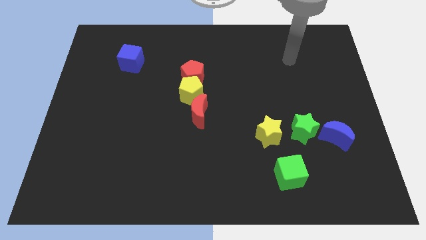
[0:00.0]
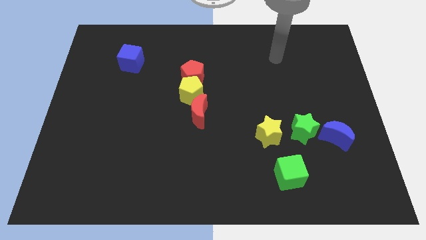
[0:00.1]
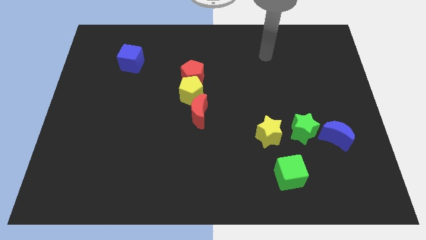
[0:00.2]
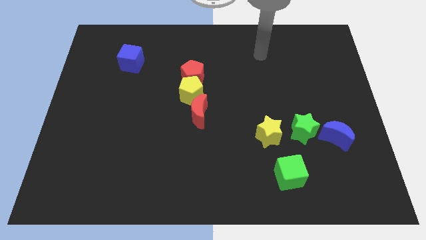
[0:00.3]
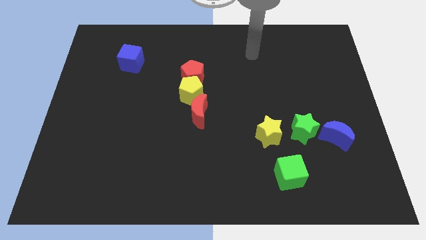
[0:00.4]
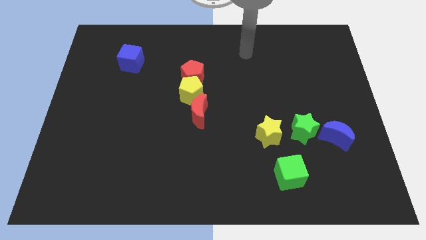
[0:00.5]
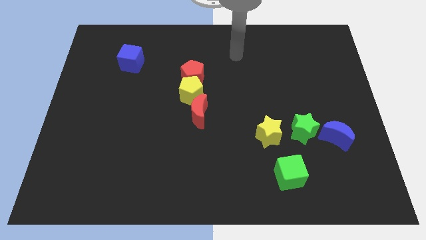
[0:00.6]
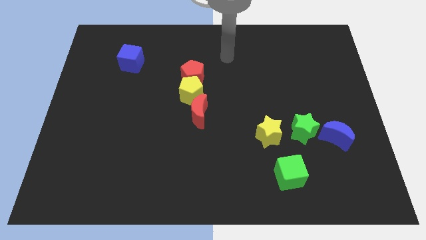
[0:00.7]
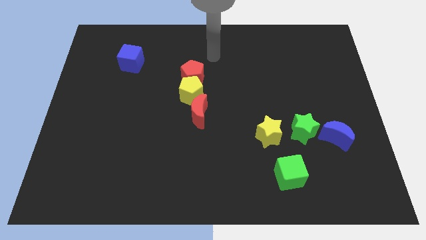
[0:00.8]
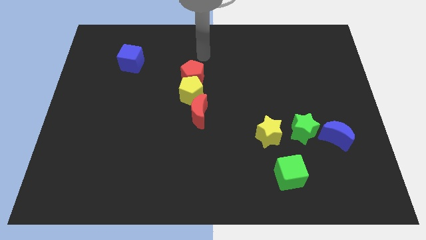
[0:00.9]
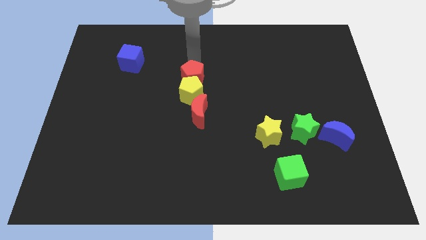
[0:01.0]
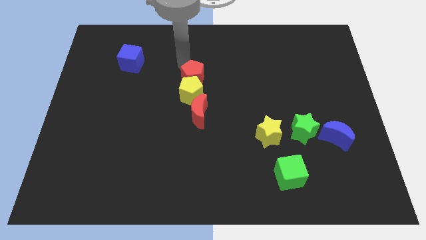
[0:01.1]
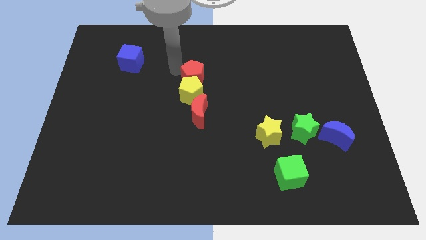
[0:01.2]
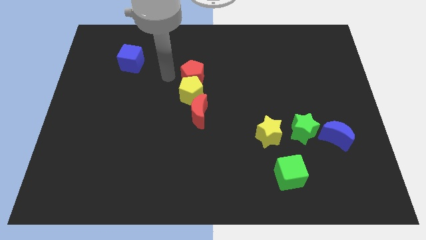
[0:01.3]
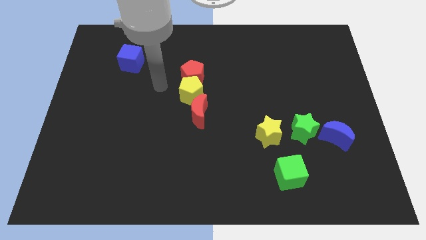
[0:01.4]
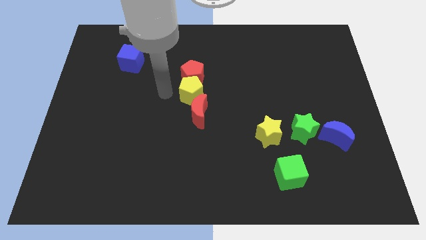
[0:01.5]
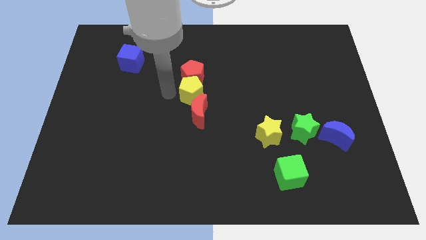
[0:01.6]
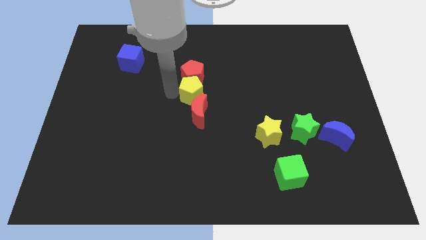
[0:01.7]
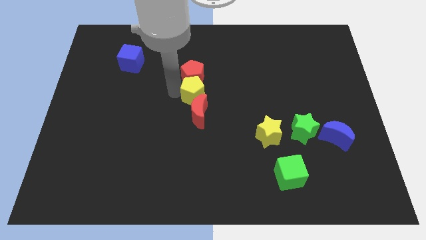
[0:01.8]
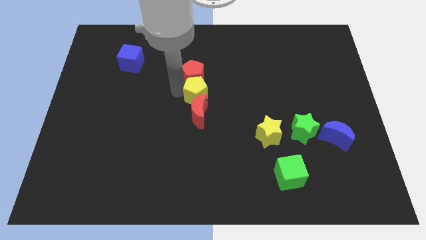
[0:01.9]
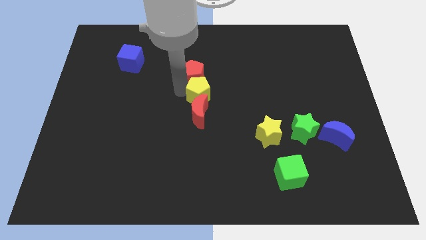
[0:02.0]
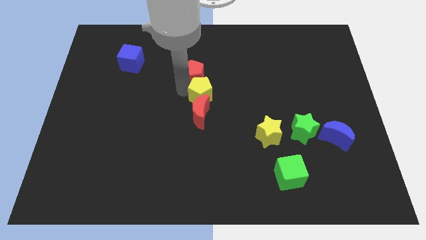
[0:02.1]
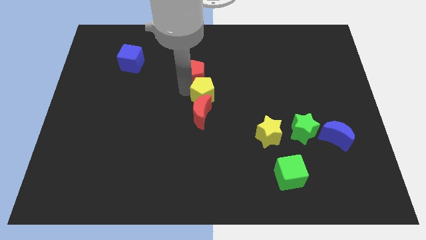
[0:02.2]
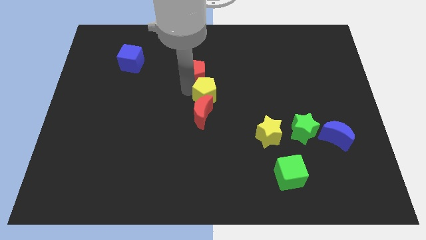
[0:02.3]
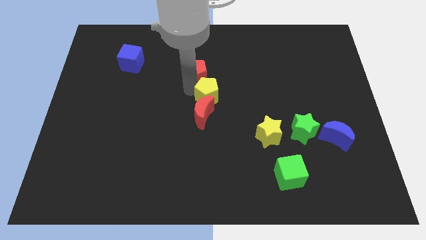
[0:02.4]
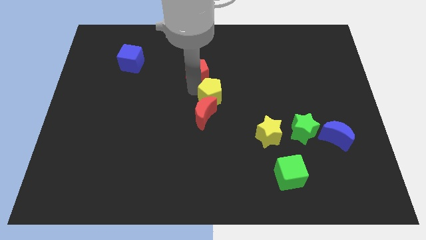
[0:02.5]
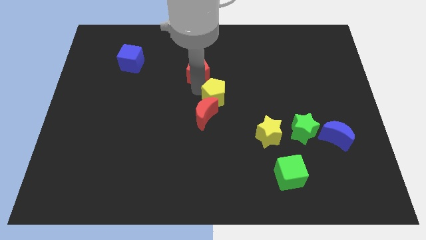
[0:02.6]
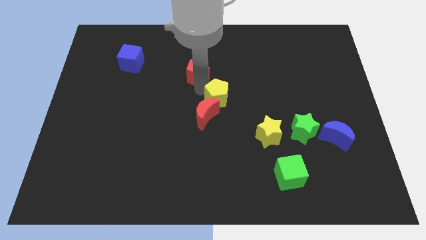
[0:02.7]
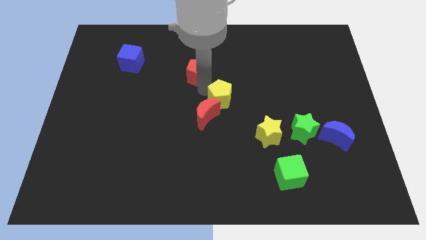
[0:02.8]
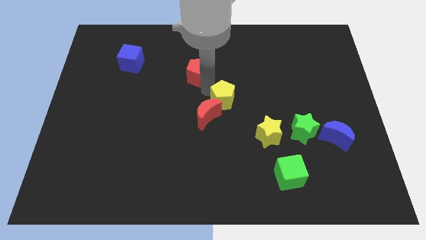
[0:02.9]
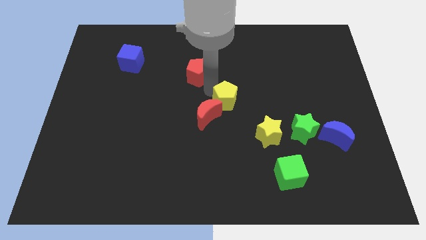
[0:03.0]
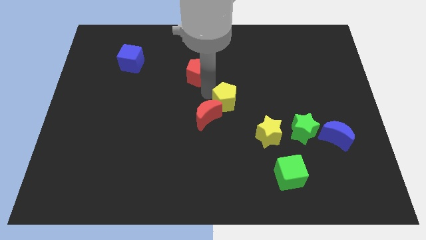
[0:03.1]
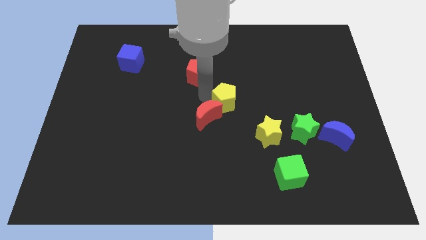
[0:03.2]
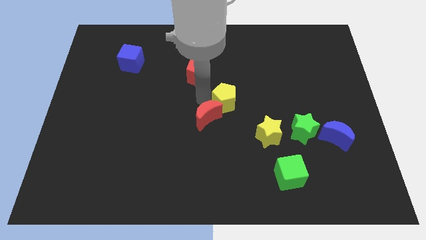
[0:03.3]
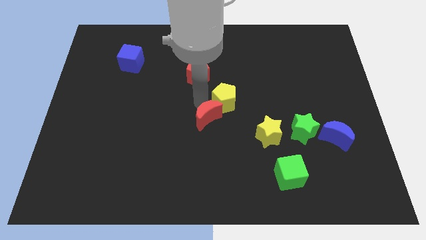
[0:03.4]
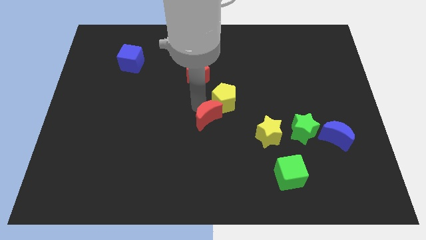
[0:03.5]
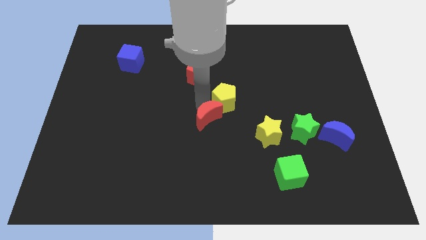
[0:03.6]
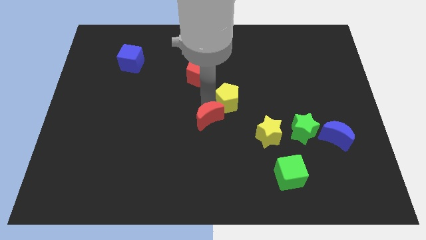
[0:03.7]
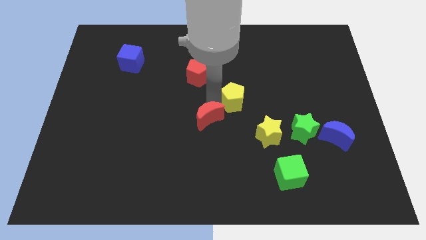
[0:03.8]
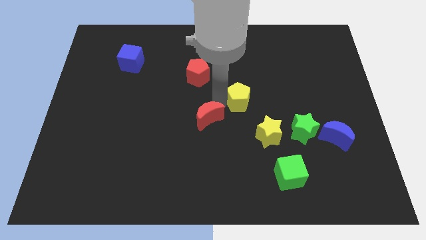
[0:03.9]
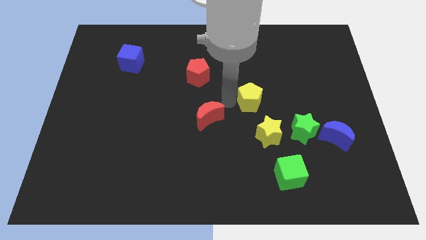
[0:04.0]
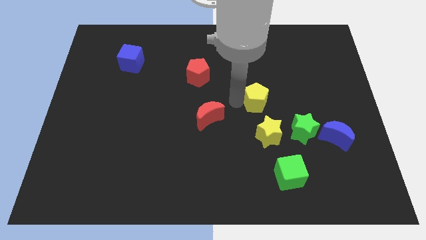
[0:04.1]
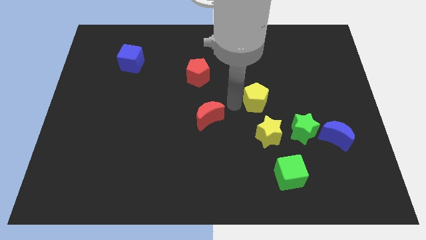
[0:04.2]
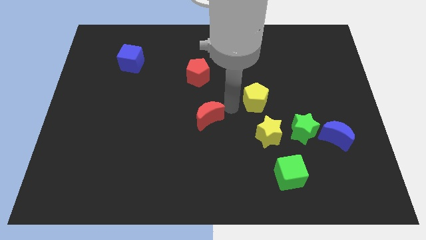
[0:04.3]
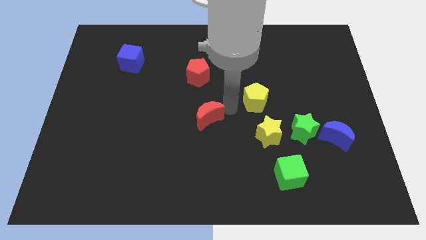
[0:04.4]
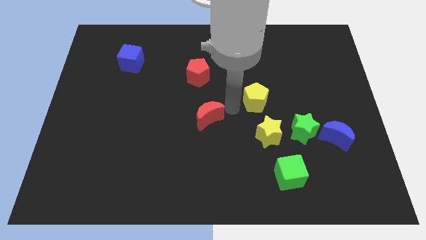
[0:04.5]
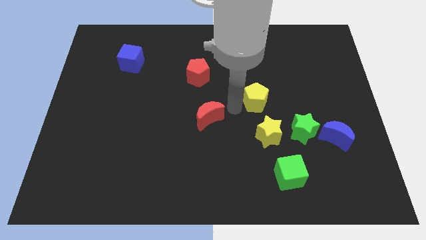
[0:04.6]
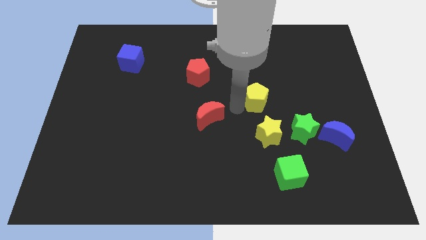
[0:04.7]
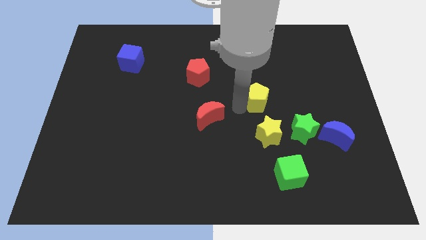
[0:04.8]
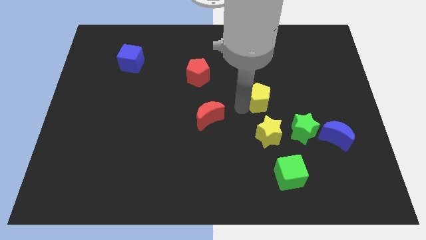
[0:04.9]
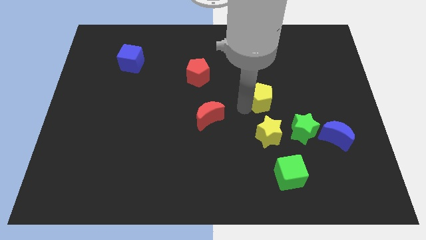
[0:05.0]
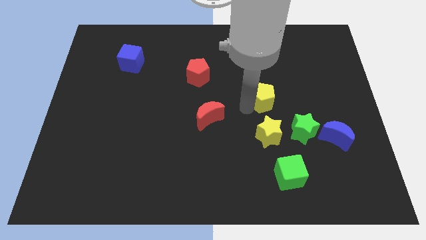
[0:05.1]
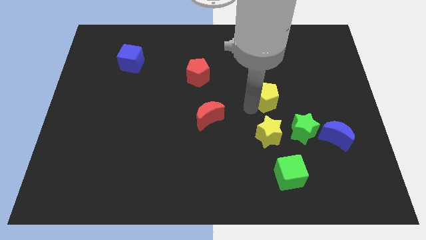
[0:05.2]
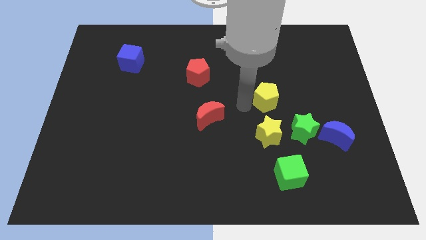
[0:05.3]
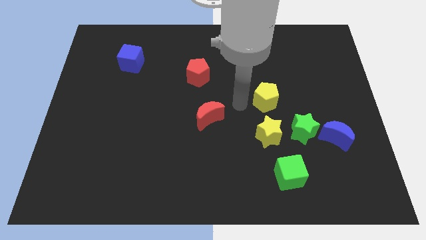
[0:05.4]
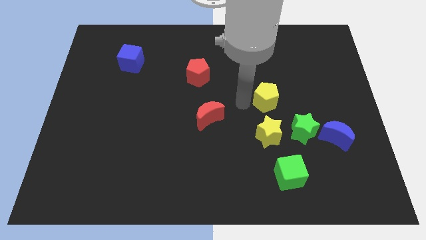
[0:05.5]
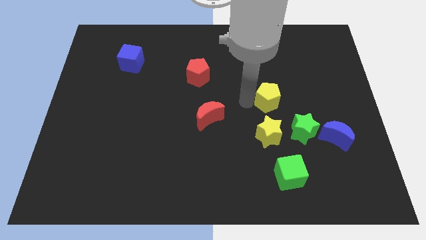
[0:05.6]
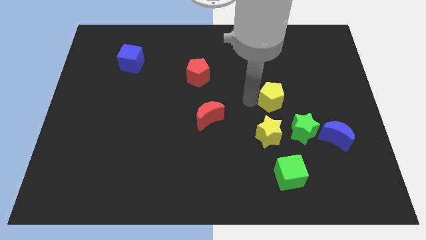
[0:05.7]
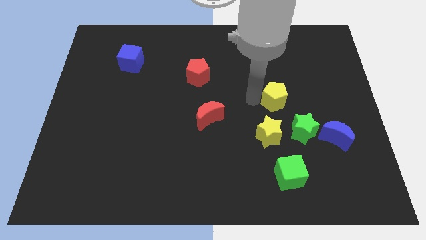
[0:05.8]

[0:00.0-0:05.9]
slide the yellow pentagon right

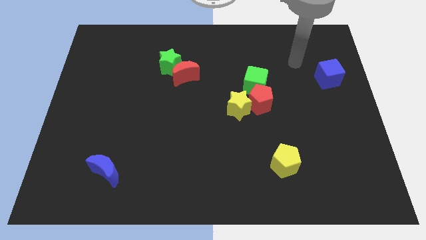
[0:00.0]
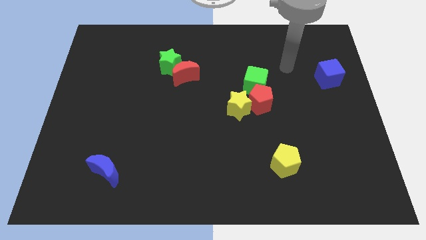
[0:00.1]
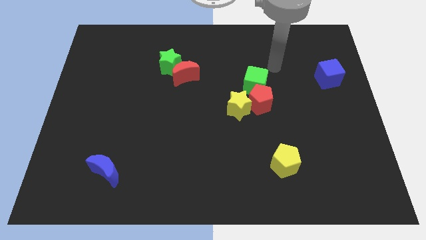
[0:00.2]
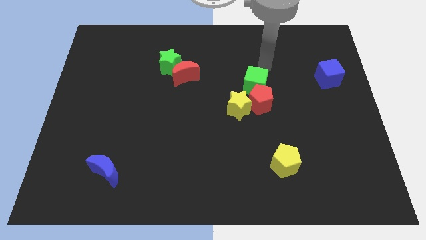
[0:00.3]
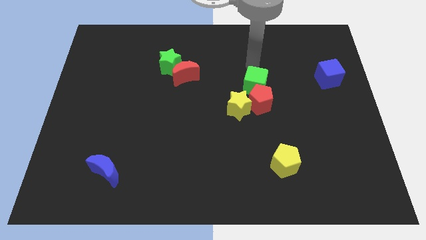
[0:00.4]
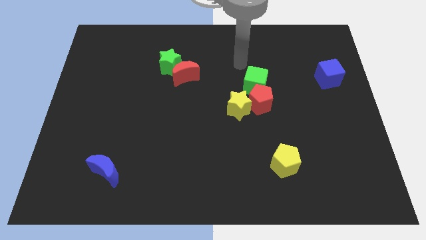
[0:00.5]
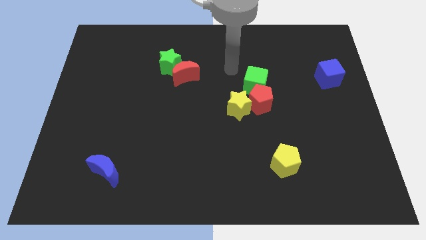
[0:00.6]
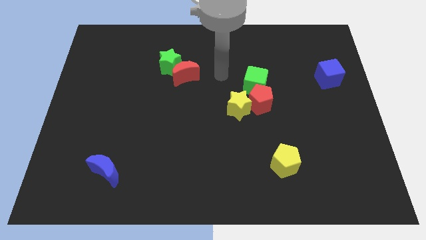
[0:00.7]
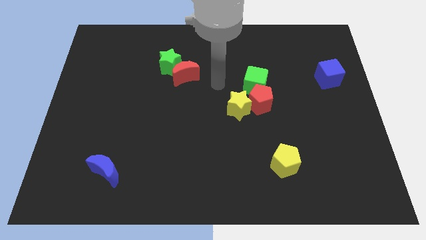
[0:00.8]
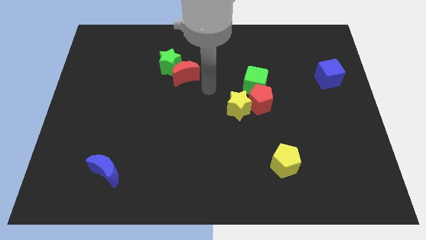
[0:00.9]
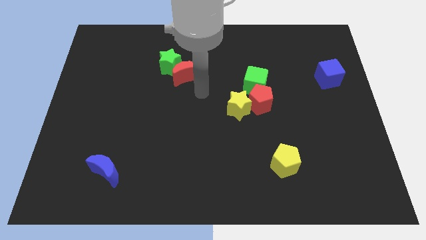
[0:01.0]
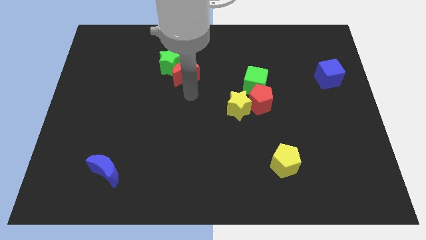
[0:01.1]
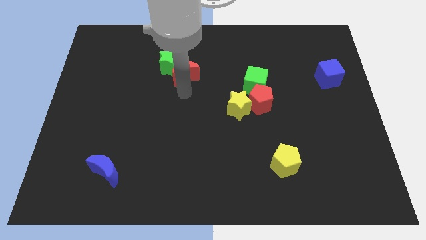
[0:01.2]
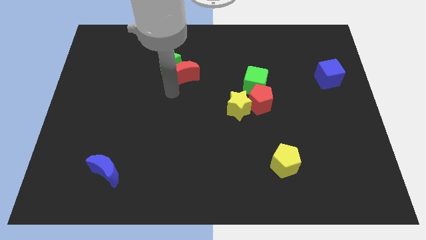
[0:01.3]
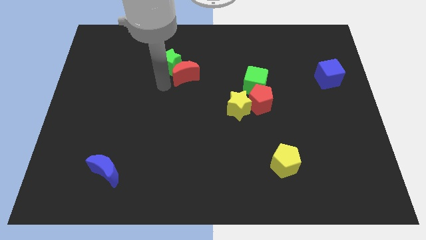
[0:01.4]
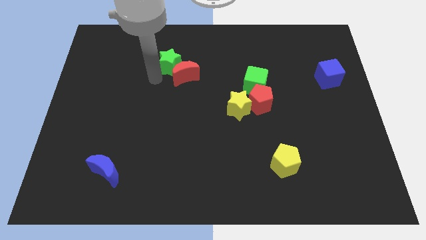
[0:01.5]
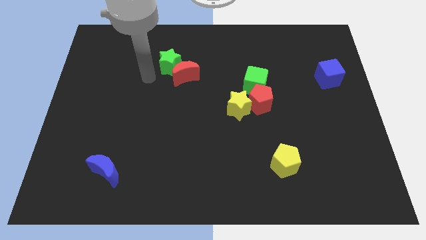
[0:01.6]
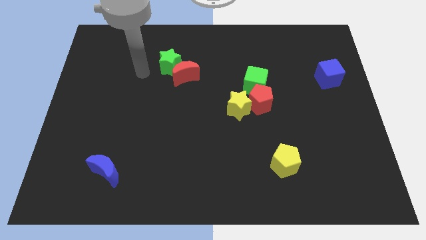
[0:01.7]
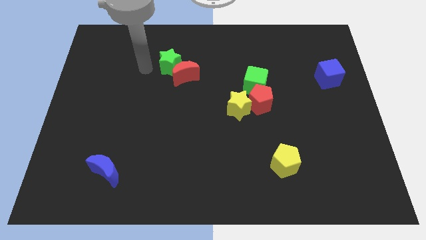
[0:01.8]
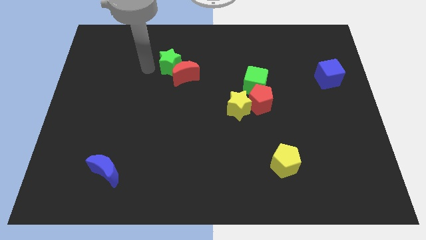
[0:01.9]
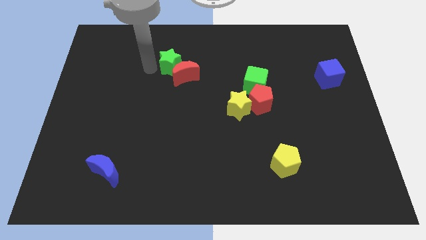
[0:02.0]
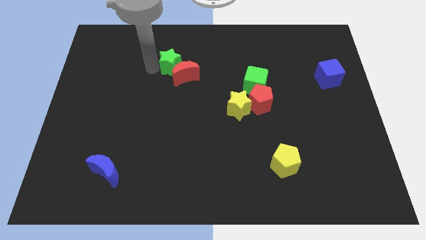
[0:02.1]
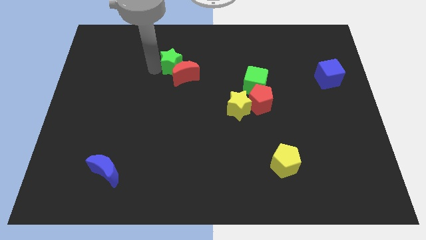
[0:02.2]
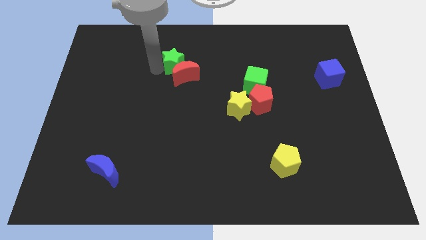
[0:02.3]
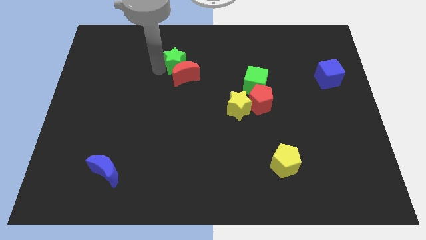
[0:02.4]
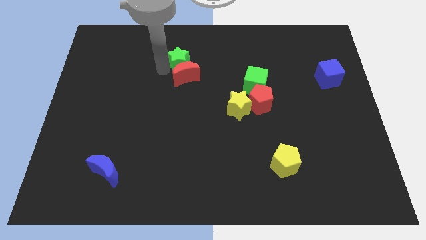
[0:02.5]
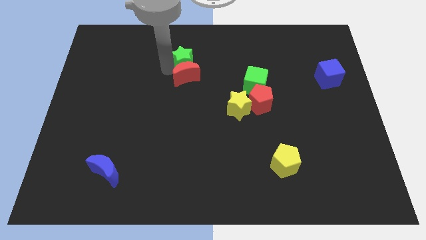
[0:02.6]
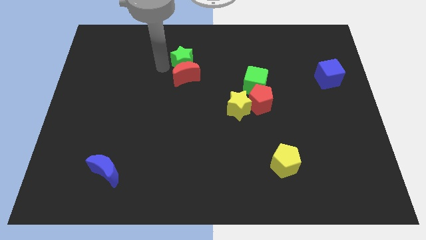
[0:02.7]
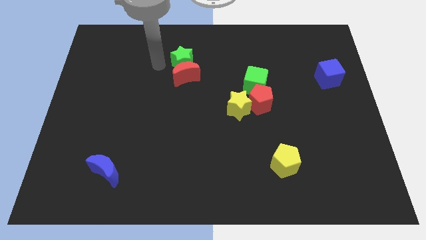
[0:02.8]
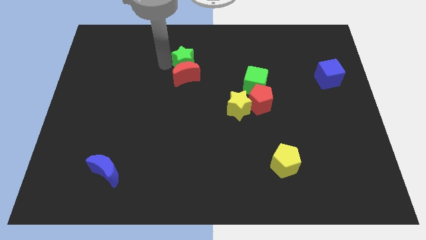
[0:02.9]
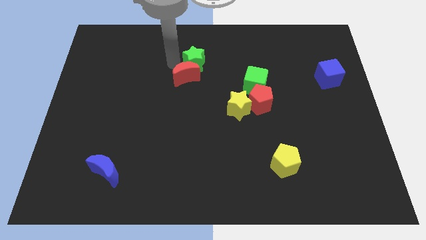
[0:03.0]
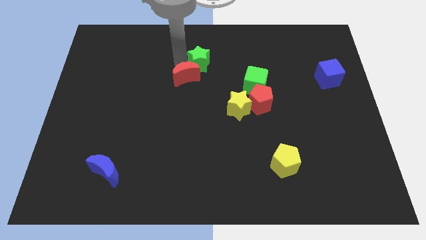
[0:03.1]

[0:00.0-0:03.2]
move the green star a bit right
